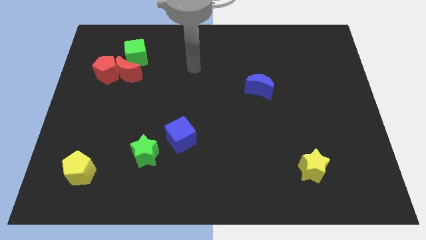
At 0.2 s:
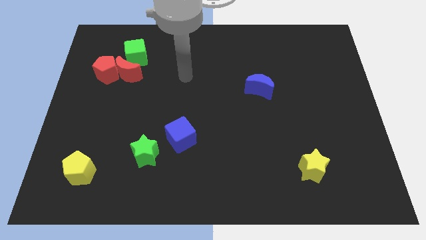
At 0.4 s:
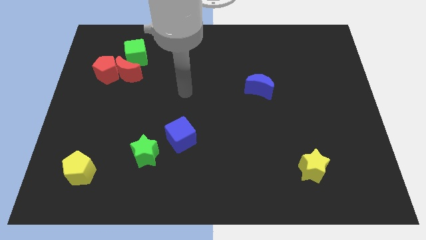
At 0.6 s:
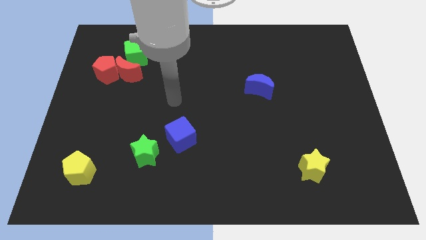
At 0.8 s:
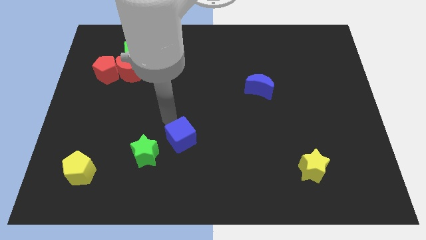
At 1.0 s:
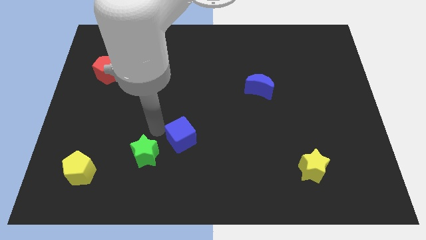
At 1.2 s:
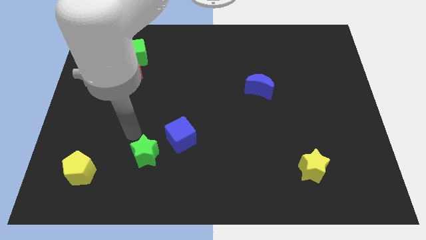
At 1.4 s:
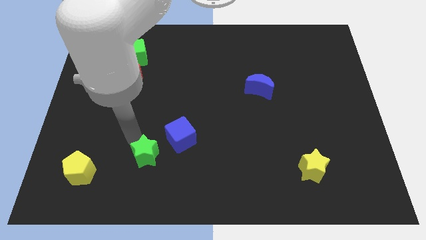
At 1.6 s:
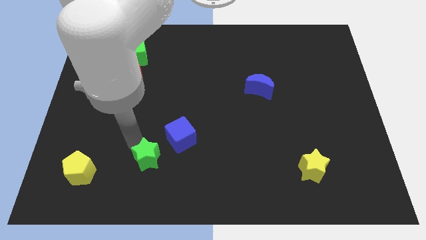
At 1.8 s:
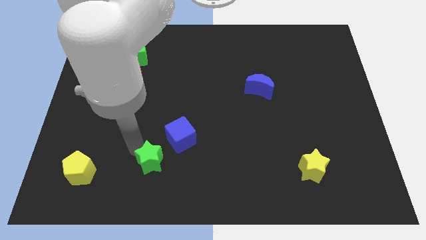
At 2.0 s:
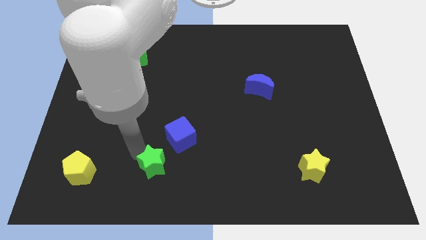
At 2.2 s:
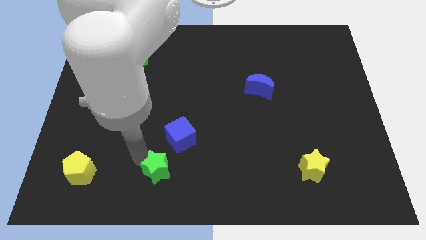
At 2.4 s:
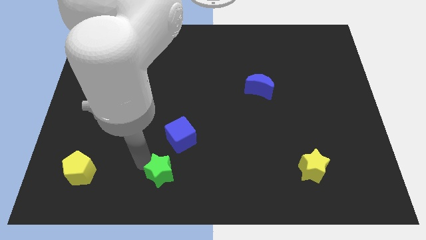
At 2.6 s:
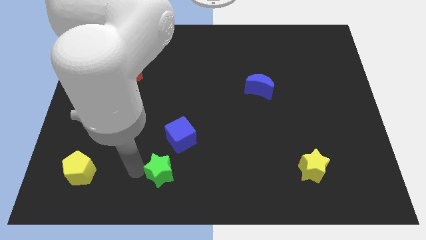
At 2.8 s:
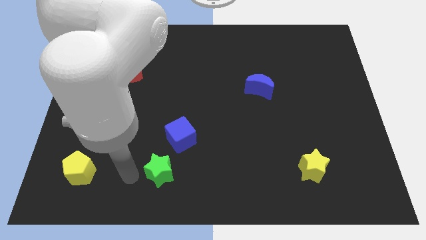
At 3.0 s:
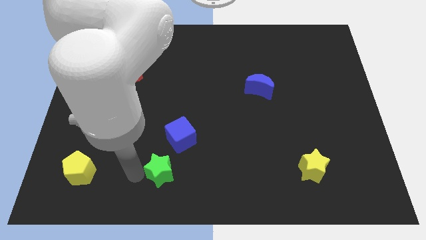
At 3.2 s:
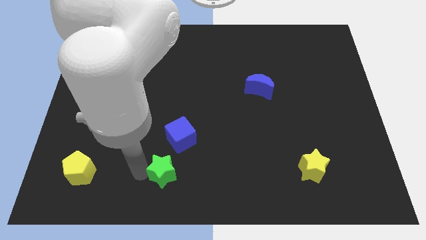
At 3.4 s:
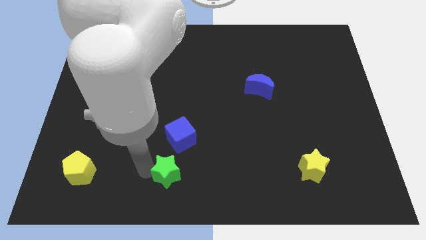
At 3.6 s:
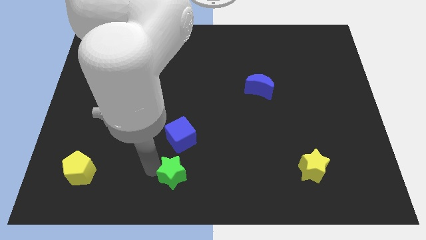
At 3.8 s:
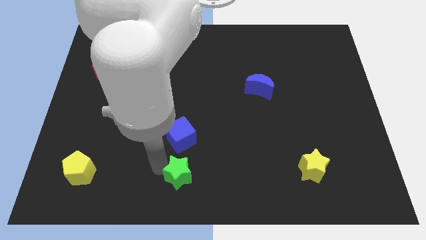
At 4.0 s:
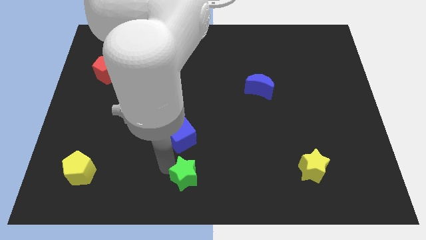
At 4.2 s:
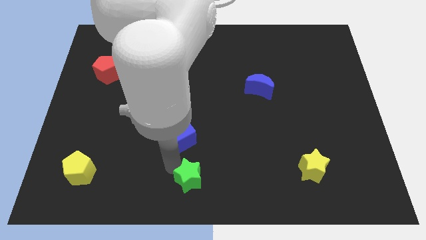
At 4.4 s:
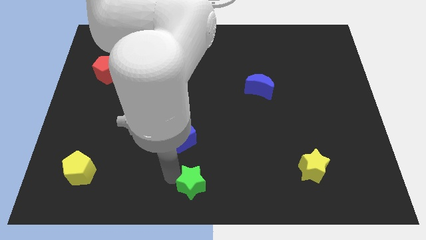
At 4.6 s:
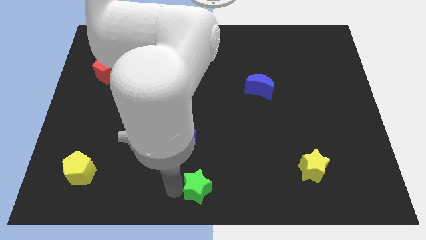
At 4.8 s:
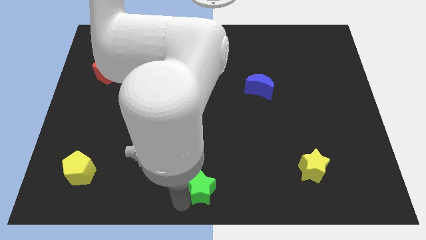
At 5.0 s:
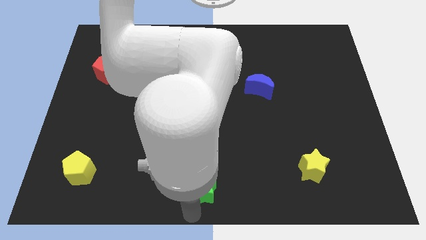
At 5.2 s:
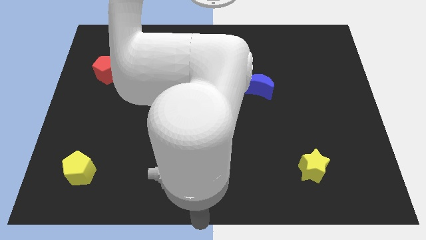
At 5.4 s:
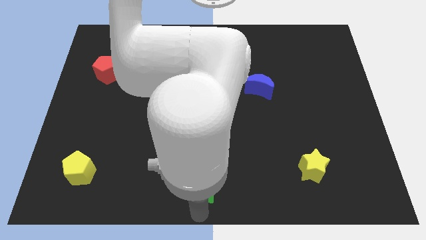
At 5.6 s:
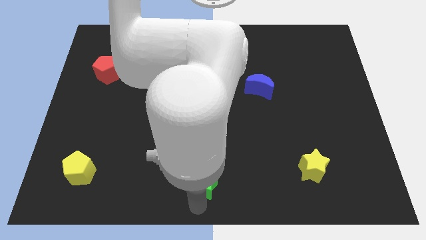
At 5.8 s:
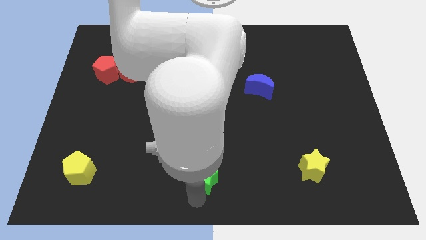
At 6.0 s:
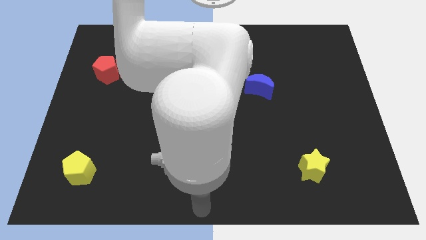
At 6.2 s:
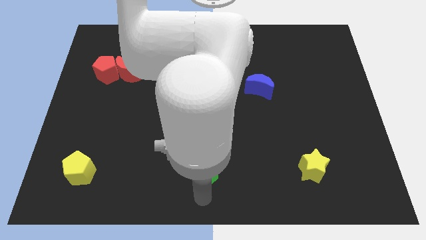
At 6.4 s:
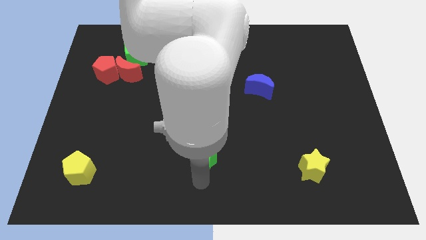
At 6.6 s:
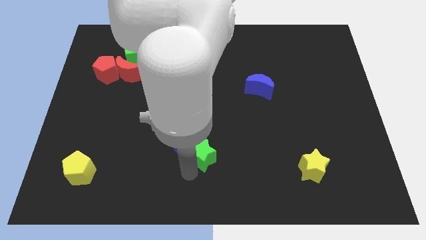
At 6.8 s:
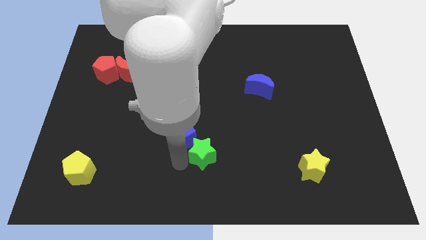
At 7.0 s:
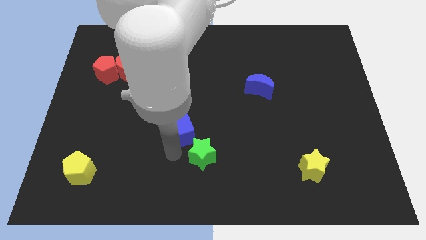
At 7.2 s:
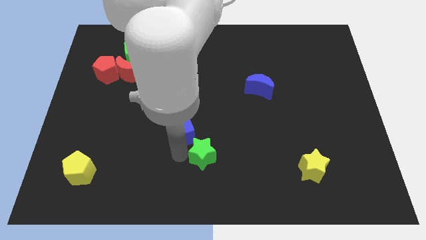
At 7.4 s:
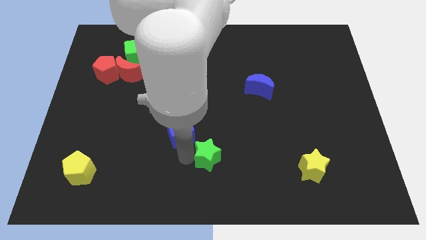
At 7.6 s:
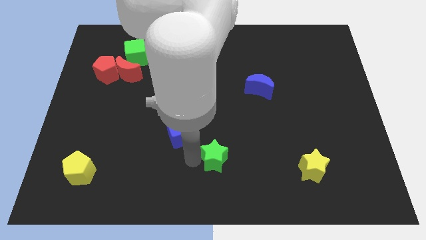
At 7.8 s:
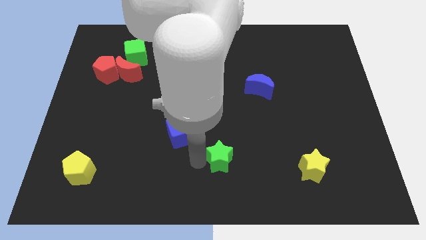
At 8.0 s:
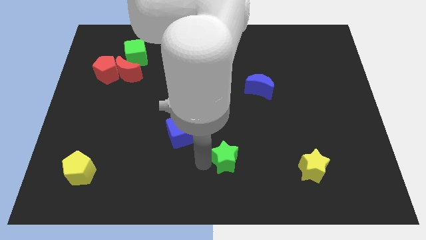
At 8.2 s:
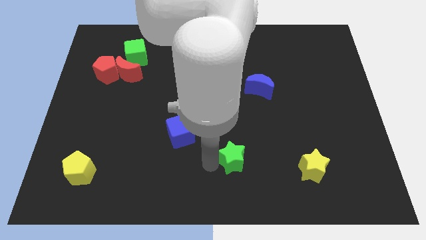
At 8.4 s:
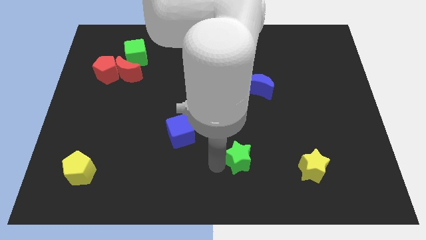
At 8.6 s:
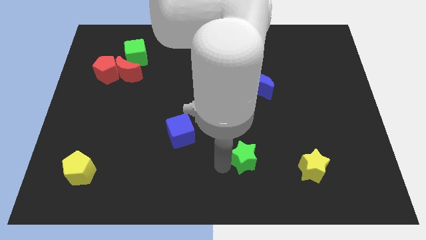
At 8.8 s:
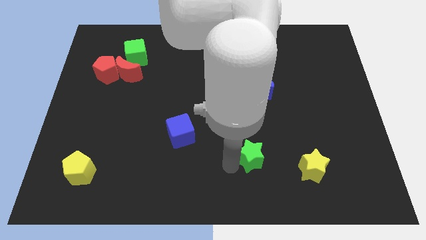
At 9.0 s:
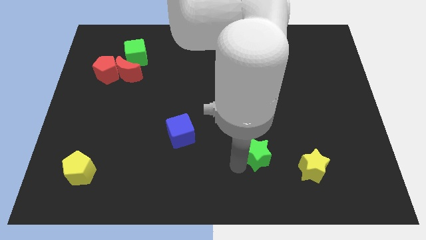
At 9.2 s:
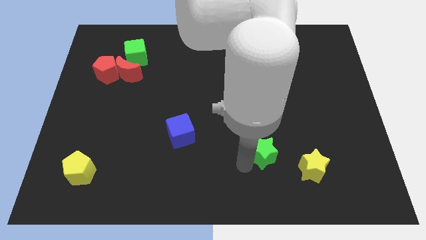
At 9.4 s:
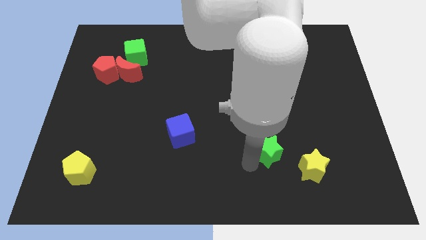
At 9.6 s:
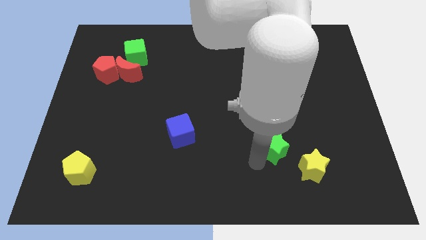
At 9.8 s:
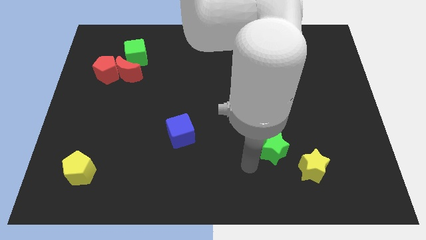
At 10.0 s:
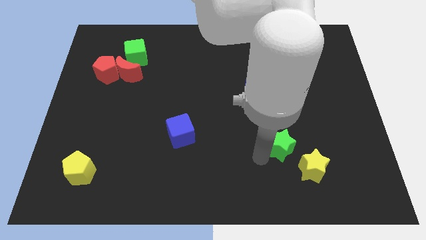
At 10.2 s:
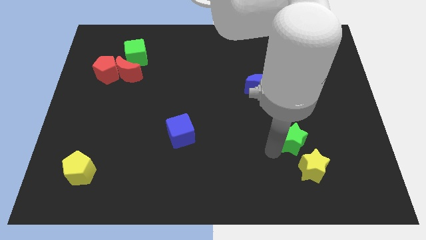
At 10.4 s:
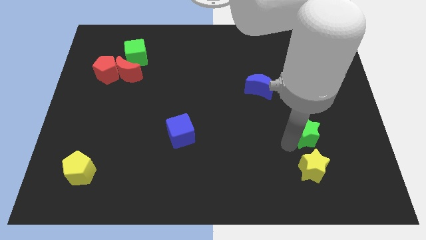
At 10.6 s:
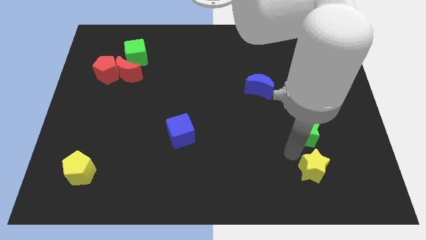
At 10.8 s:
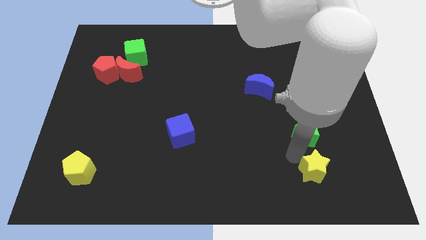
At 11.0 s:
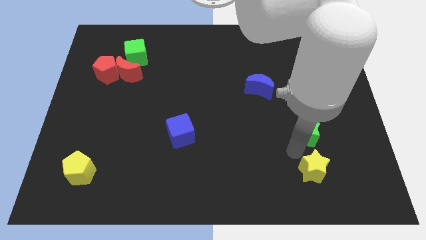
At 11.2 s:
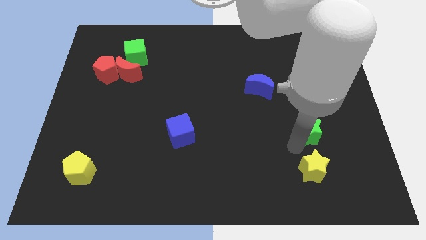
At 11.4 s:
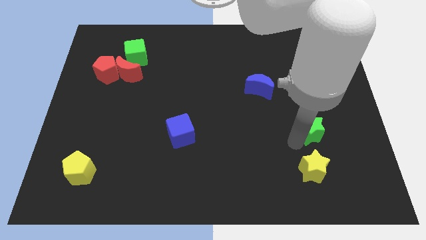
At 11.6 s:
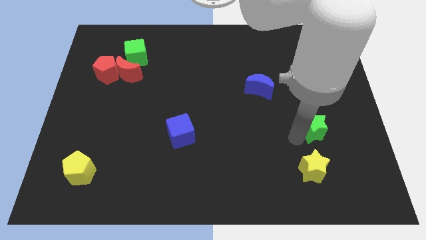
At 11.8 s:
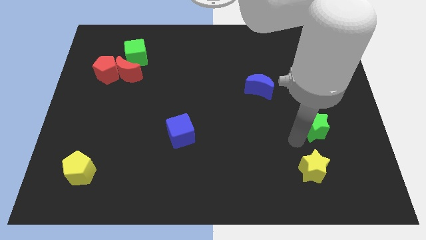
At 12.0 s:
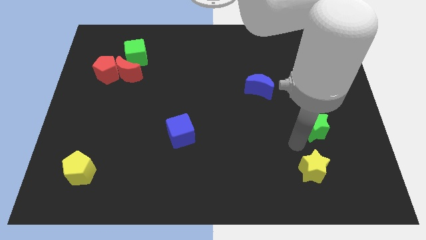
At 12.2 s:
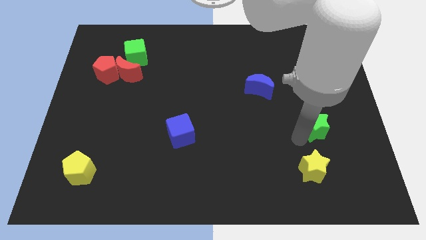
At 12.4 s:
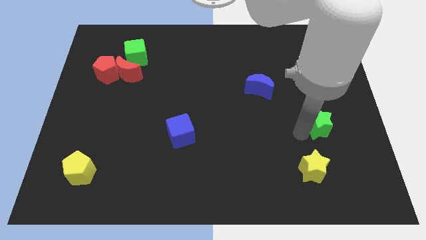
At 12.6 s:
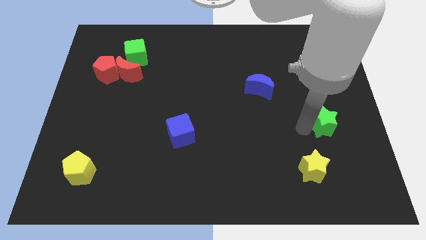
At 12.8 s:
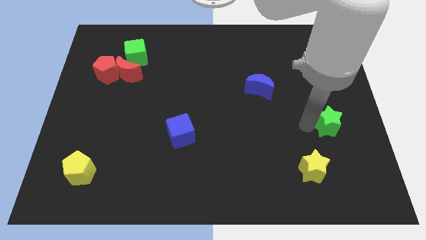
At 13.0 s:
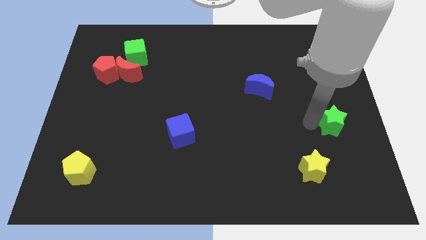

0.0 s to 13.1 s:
put the green star to the center right
